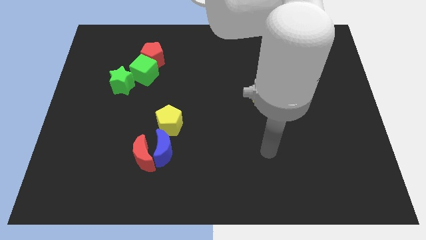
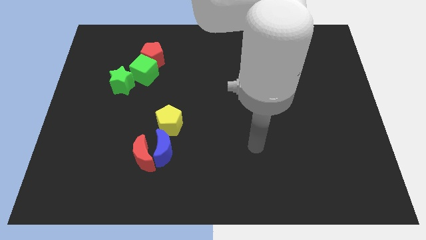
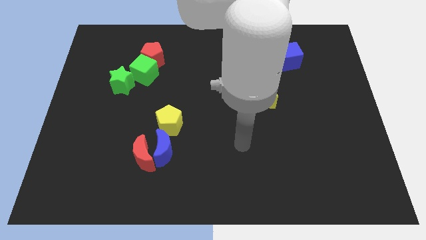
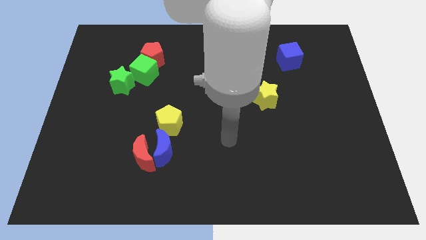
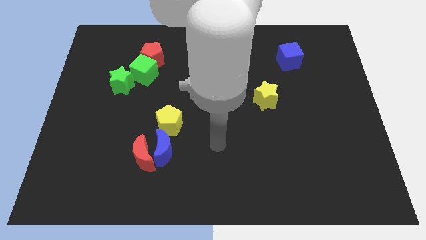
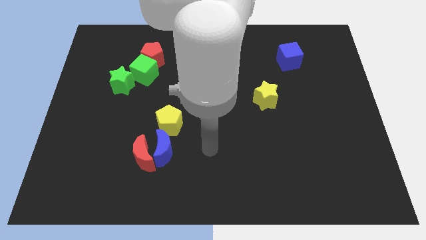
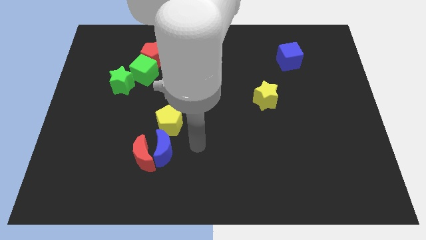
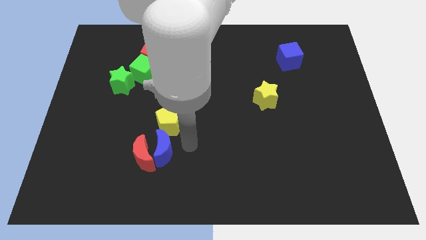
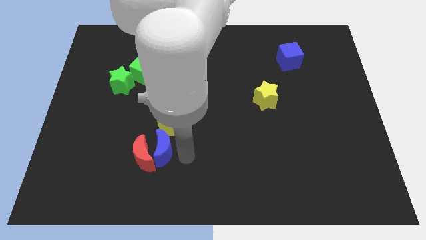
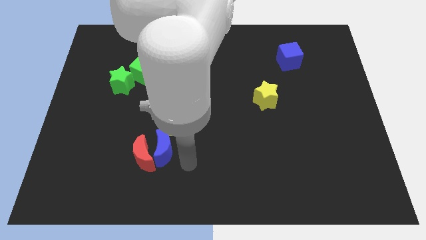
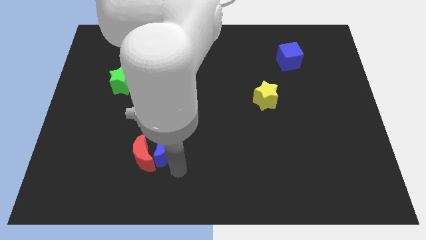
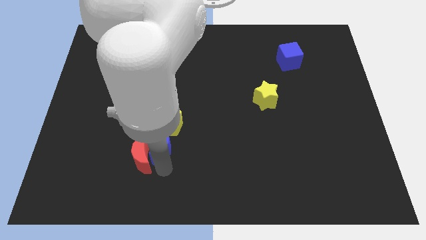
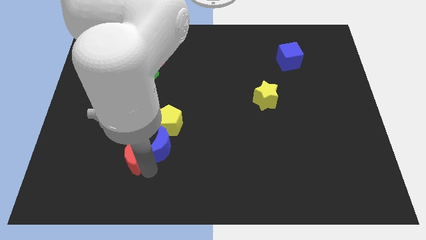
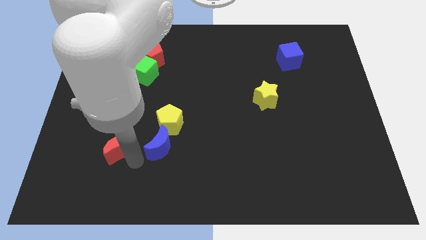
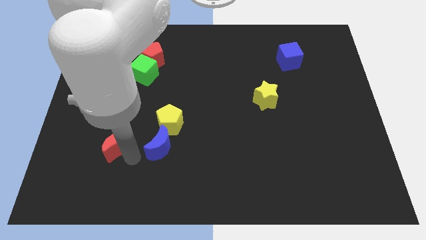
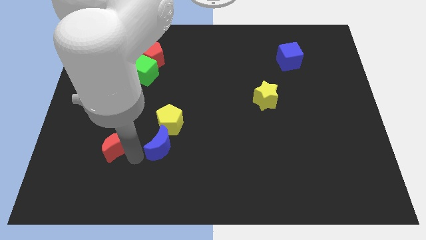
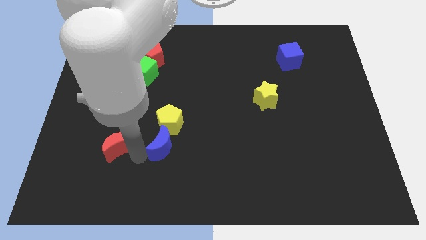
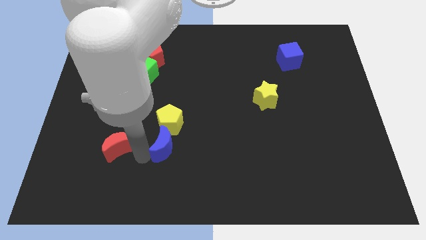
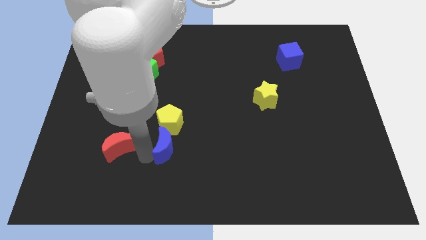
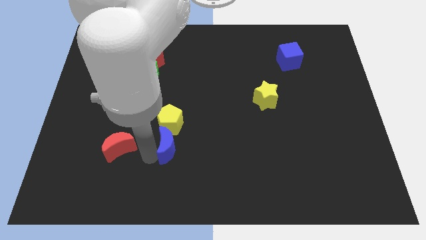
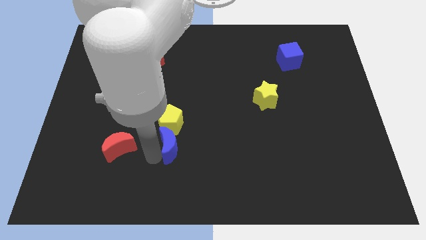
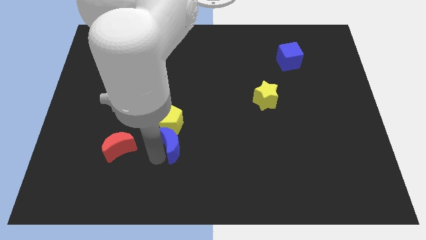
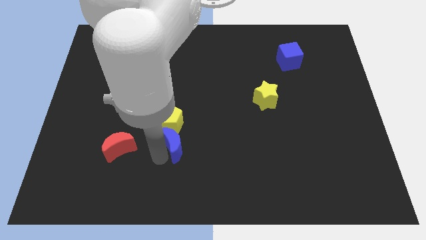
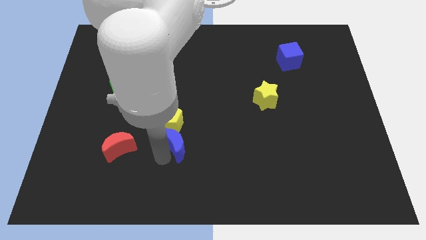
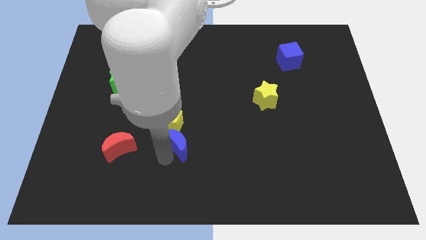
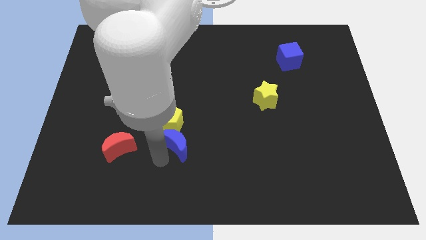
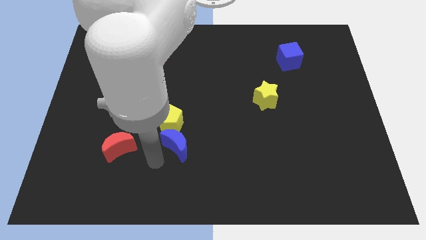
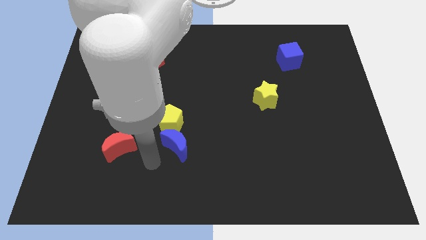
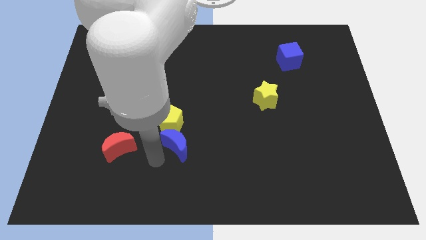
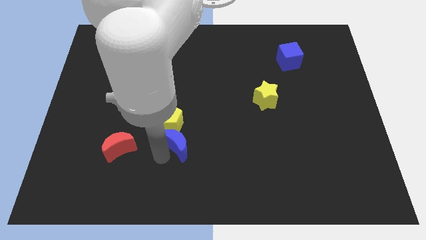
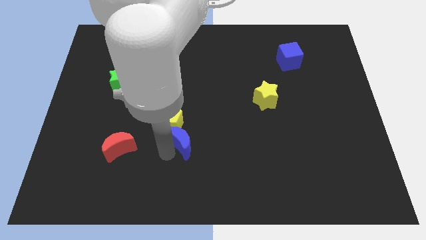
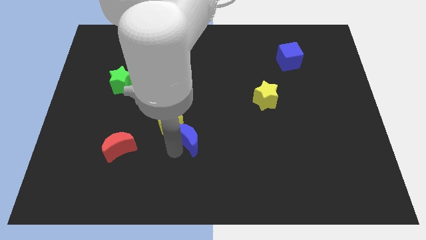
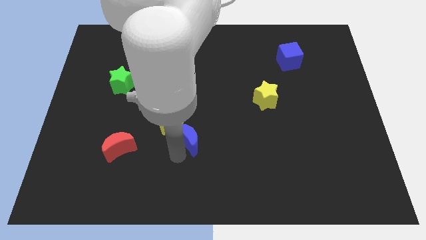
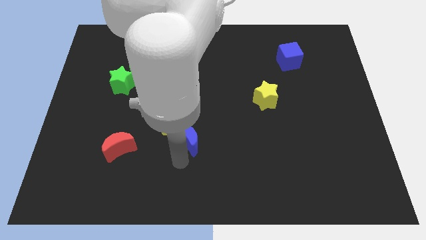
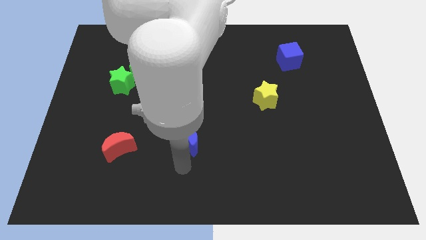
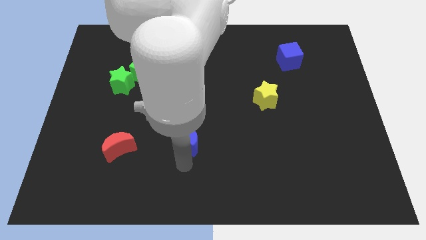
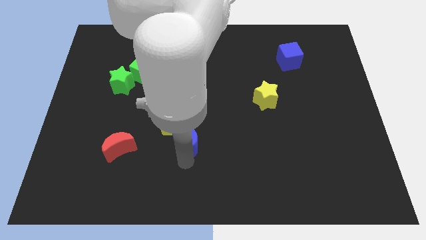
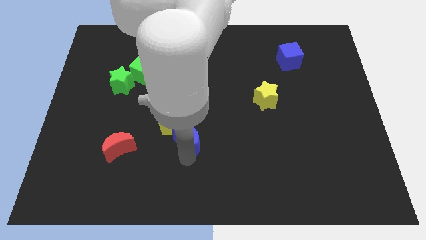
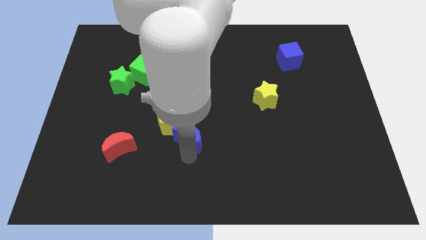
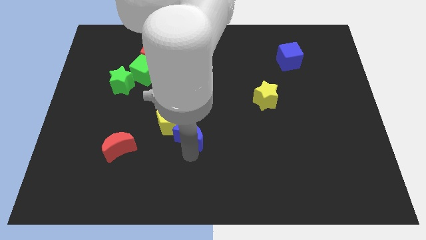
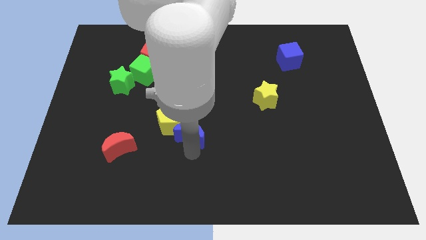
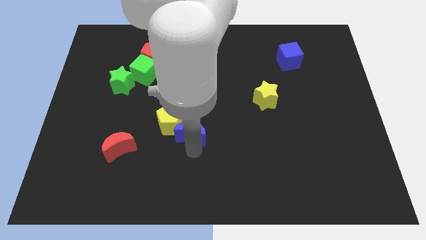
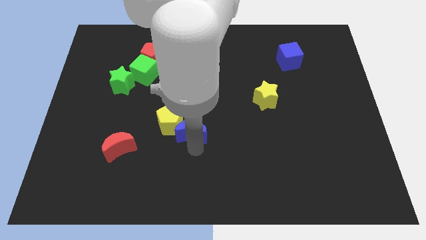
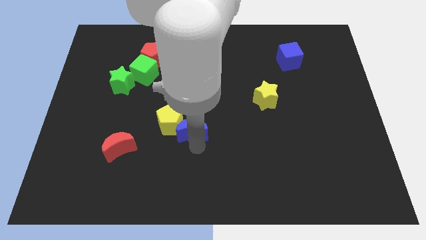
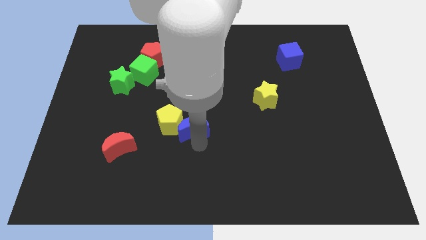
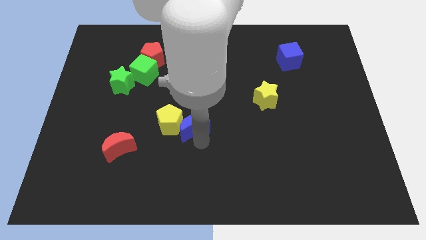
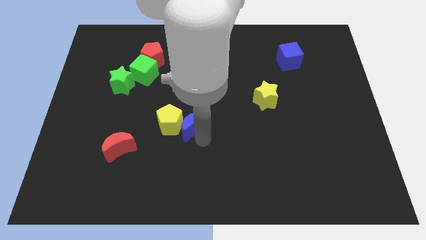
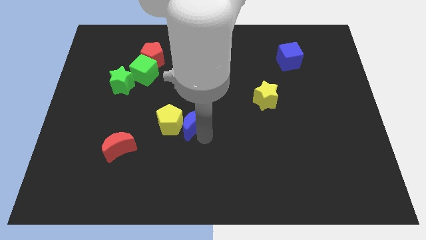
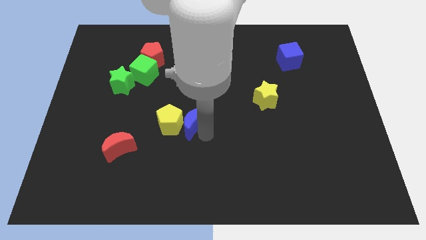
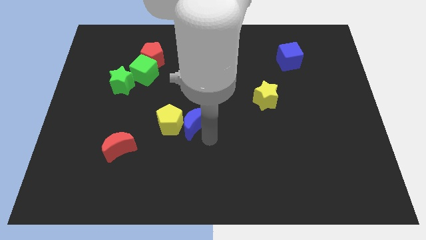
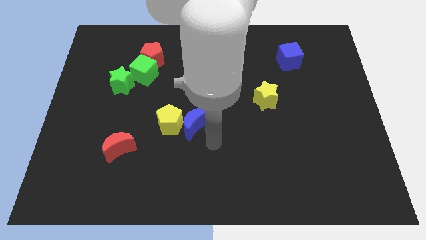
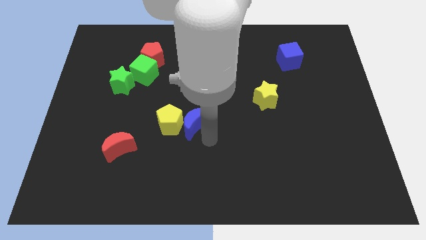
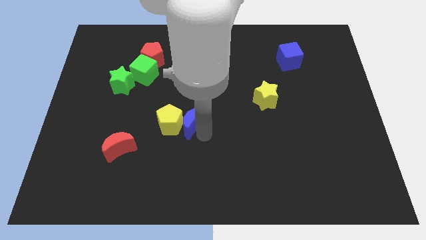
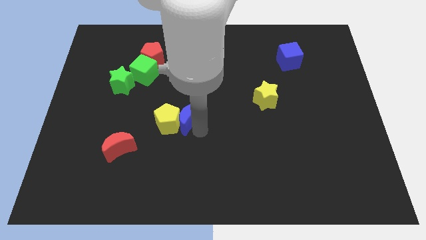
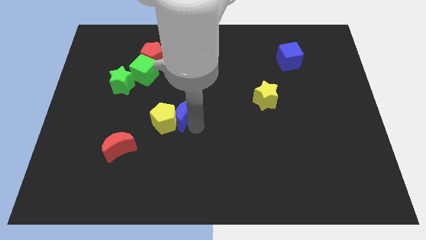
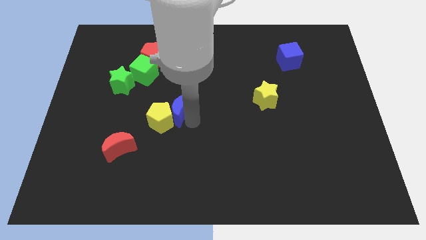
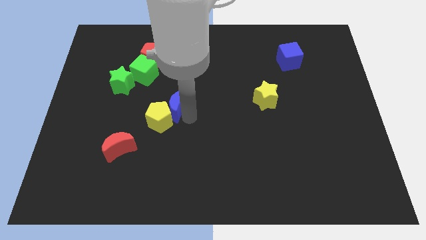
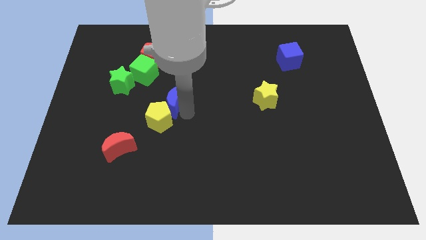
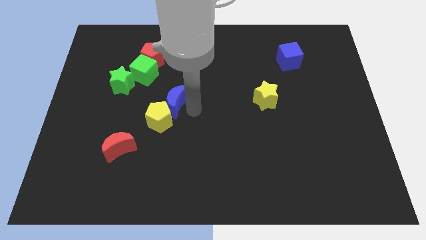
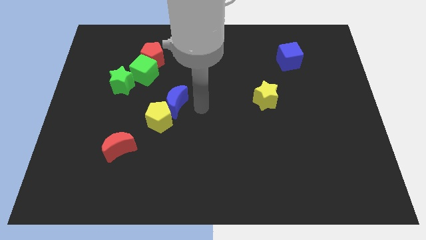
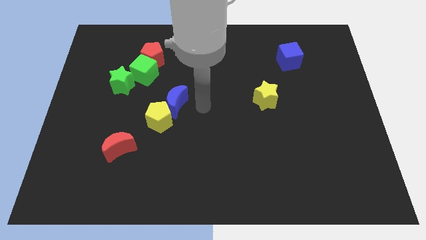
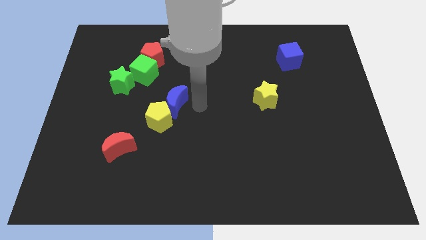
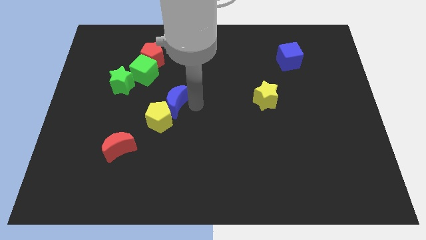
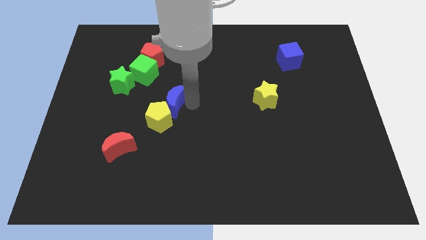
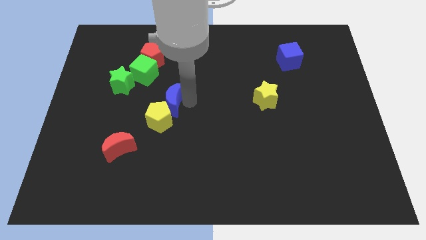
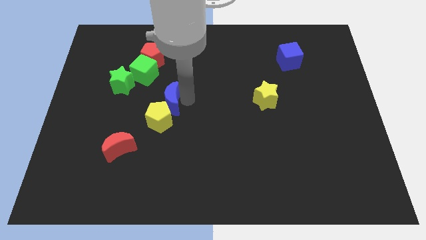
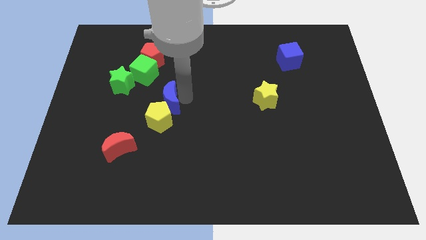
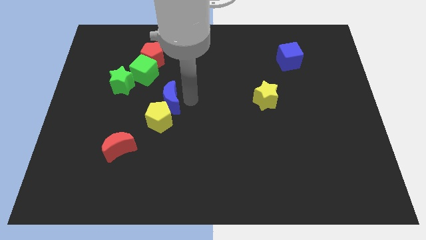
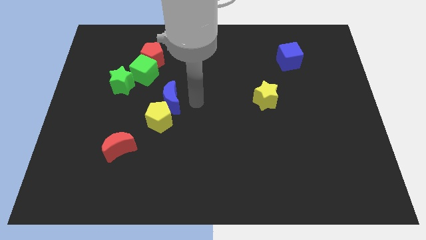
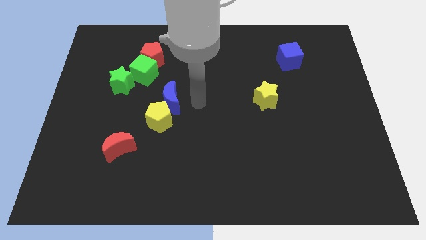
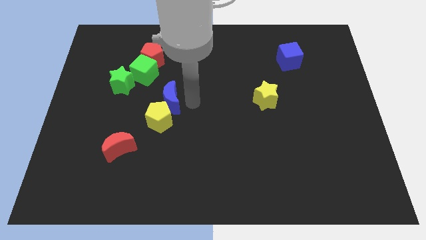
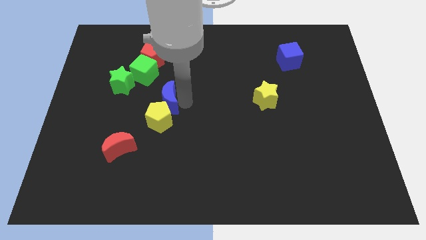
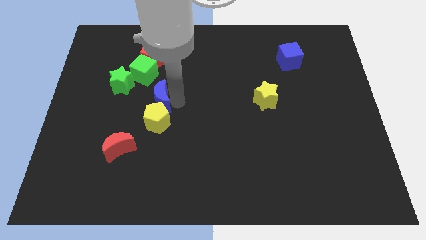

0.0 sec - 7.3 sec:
put the blue moon to the bottom right of the green star

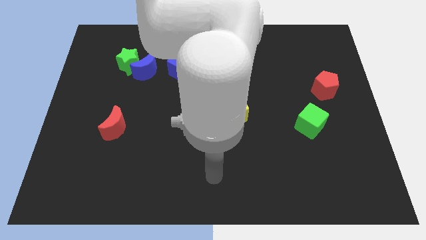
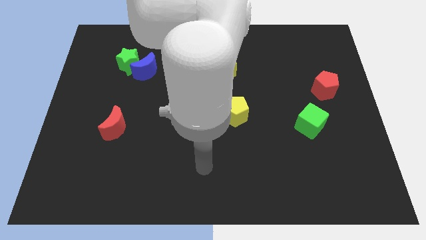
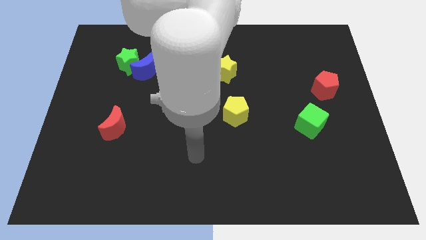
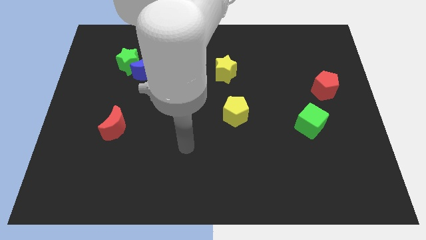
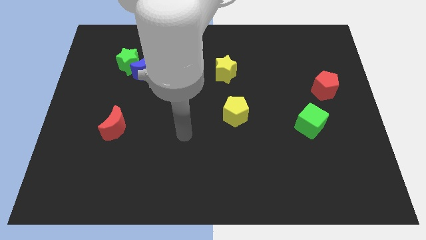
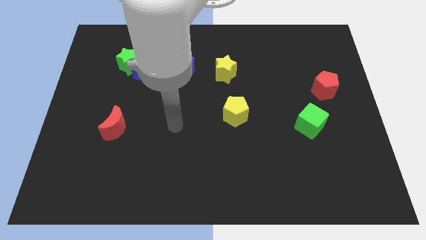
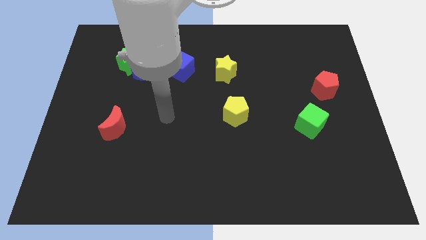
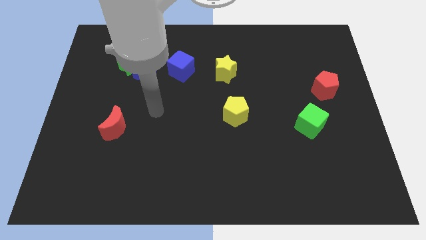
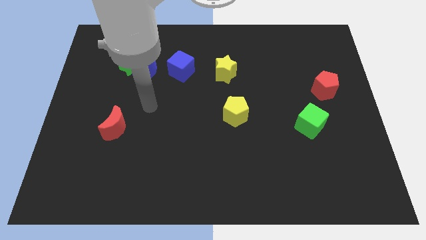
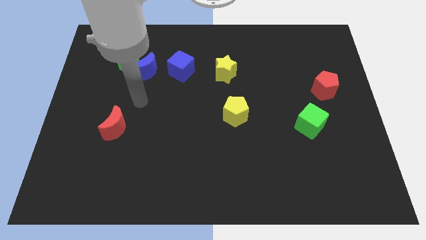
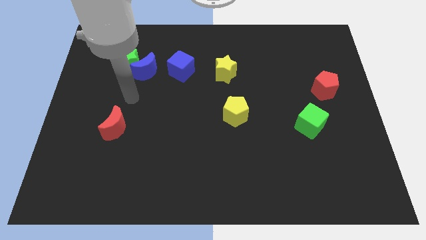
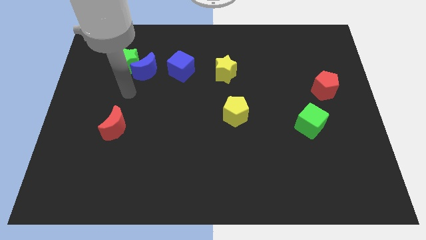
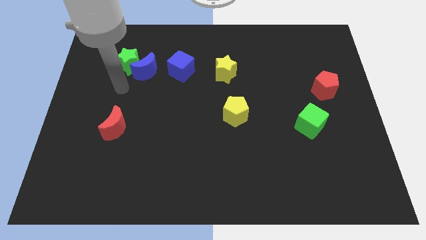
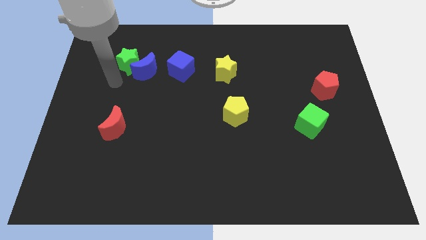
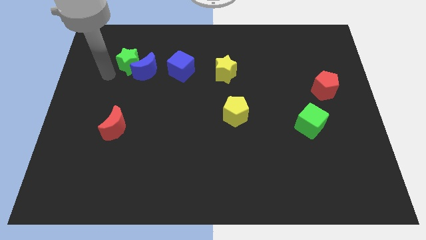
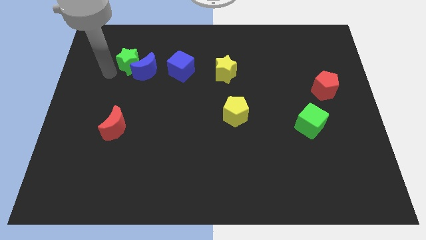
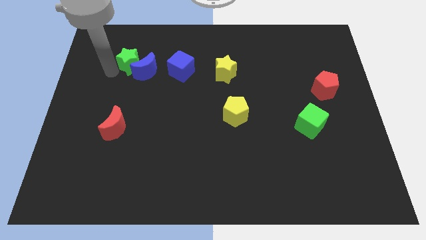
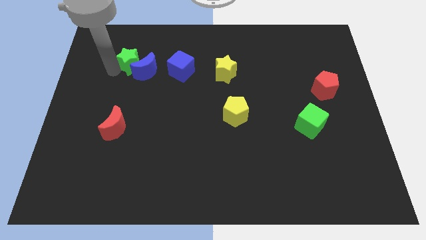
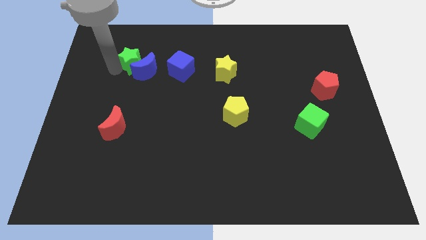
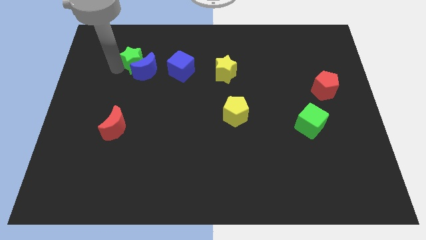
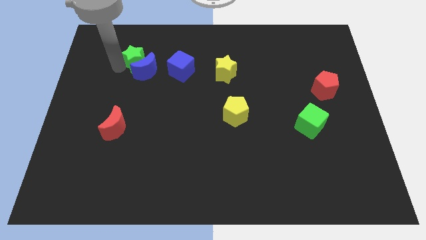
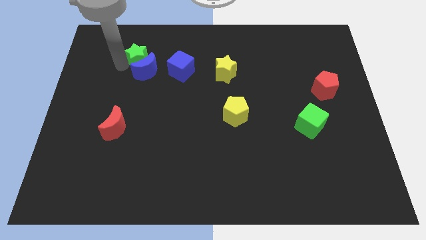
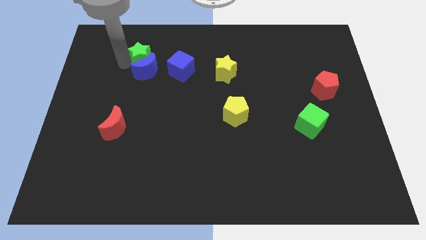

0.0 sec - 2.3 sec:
push the green star diagonally up and to the right of the blue moon
